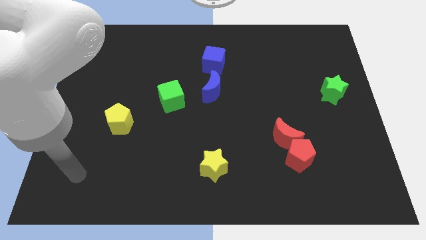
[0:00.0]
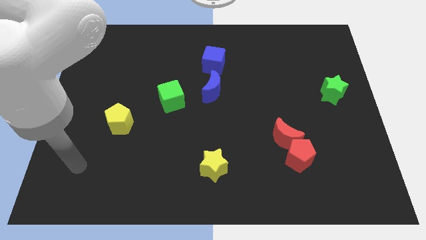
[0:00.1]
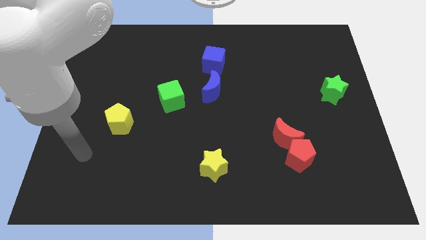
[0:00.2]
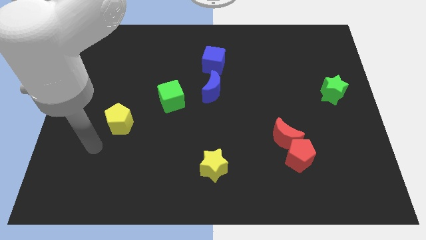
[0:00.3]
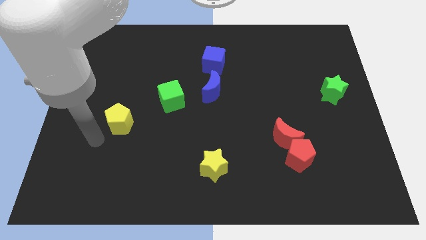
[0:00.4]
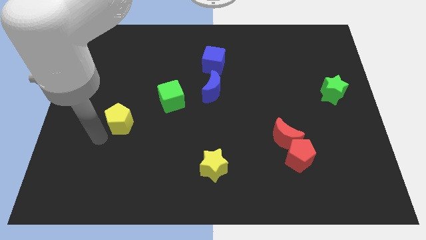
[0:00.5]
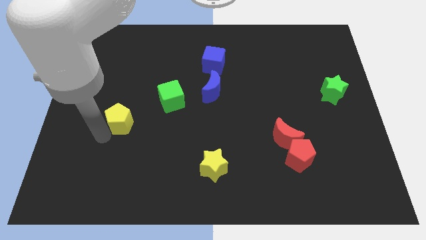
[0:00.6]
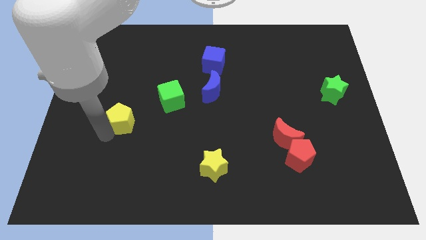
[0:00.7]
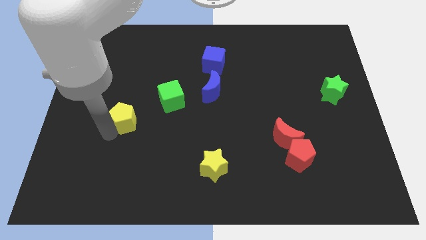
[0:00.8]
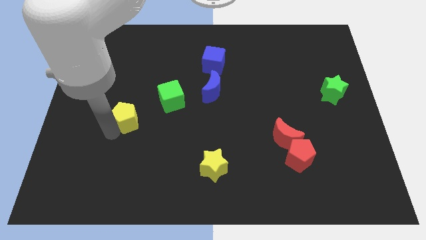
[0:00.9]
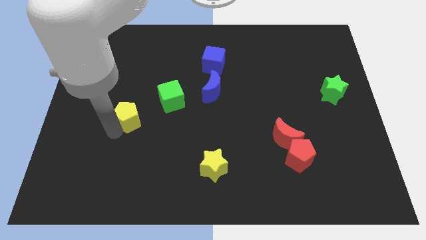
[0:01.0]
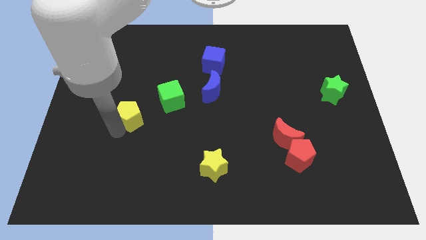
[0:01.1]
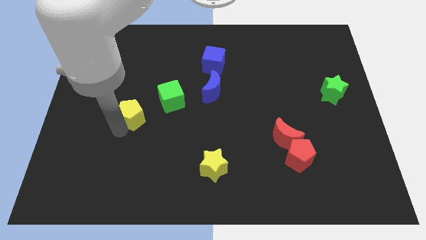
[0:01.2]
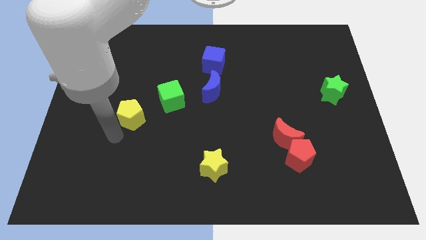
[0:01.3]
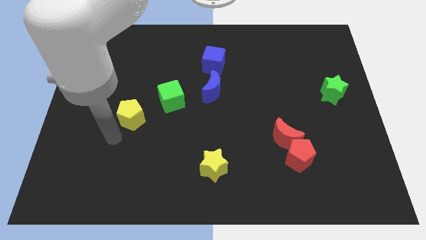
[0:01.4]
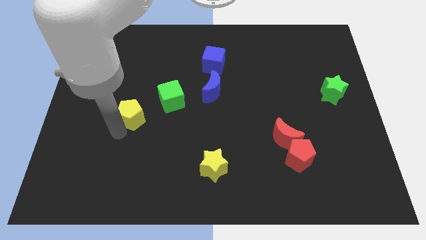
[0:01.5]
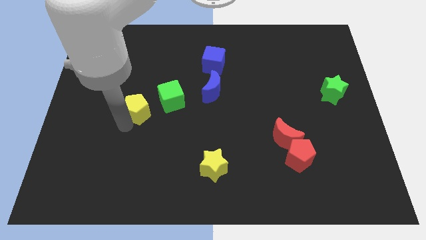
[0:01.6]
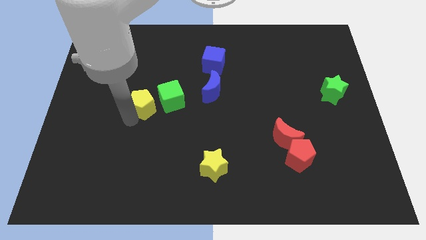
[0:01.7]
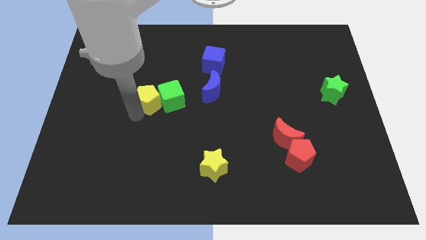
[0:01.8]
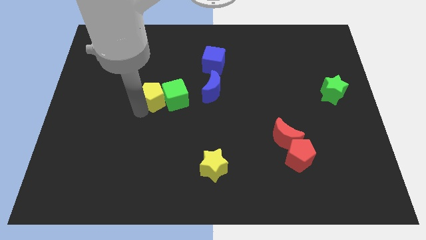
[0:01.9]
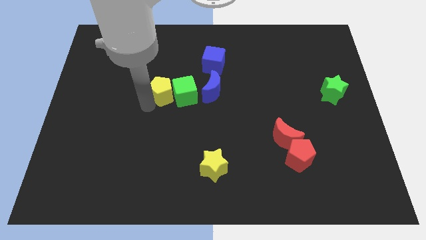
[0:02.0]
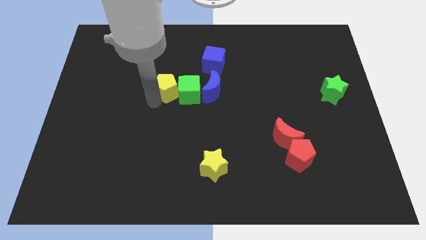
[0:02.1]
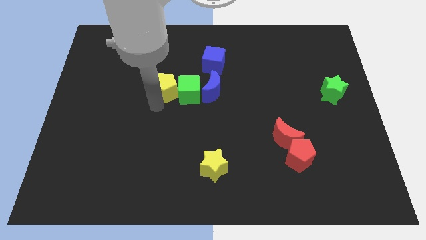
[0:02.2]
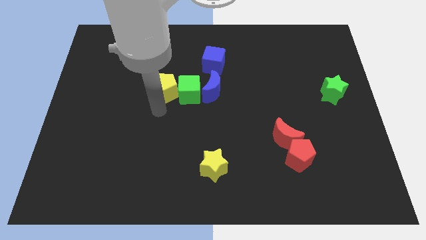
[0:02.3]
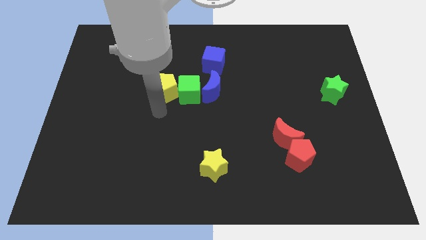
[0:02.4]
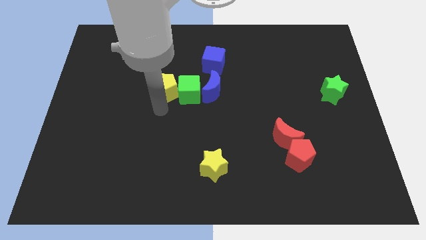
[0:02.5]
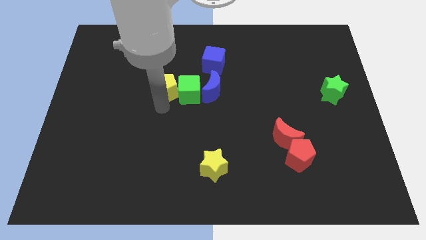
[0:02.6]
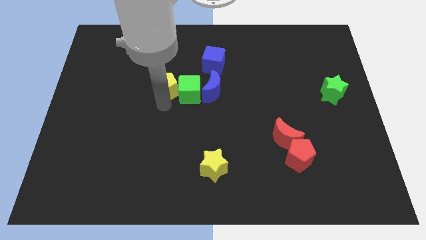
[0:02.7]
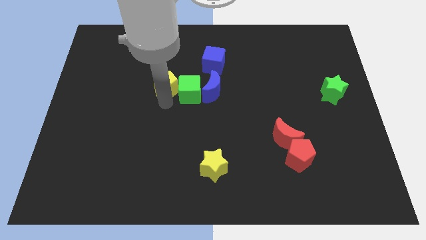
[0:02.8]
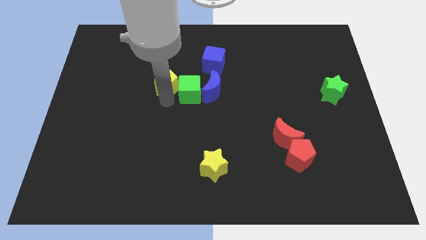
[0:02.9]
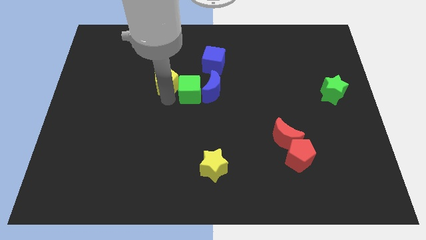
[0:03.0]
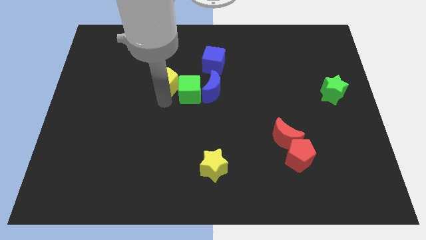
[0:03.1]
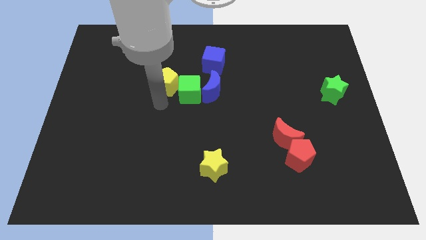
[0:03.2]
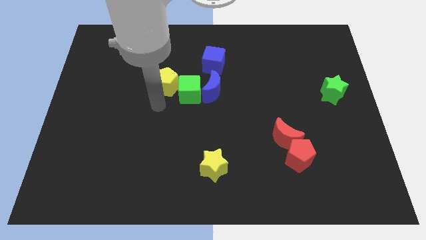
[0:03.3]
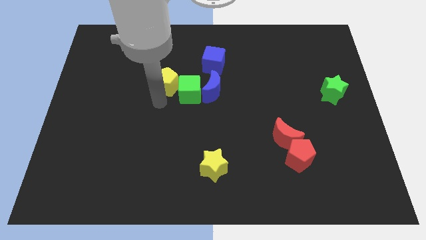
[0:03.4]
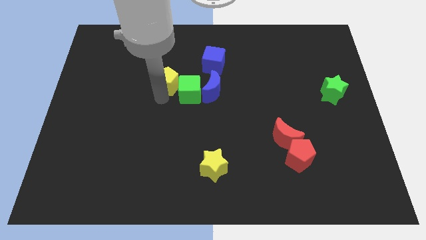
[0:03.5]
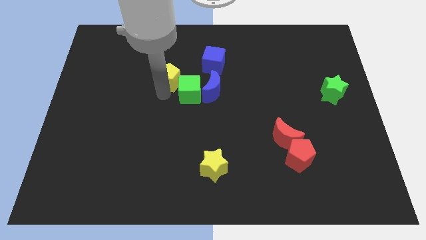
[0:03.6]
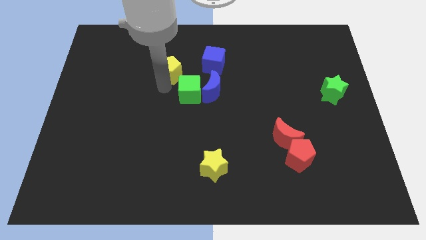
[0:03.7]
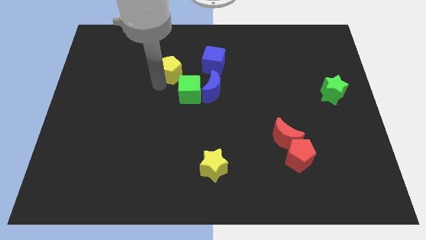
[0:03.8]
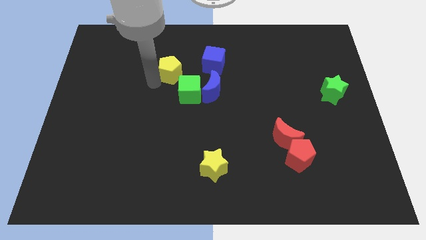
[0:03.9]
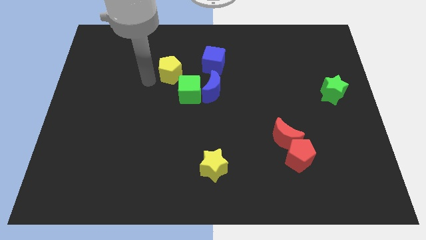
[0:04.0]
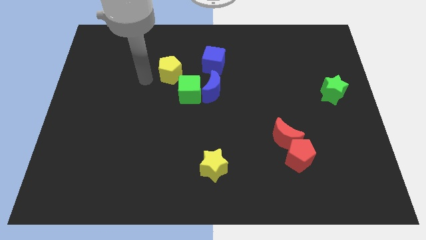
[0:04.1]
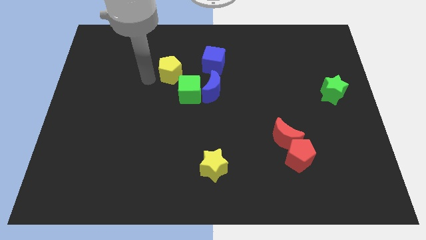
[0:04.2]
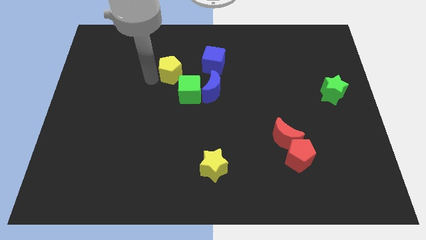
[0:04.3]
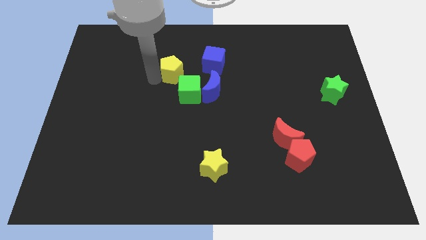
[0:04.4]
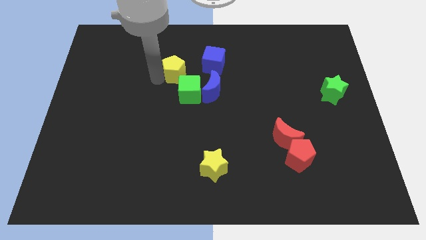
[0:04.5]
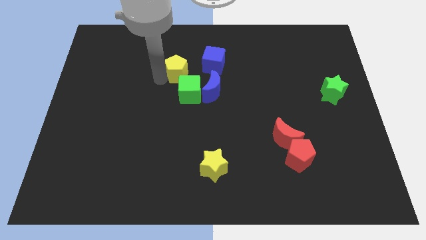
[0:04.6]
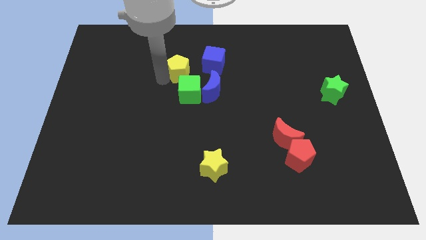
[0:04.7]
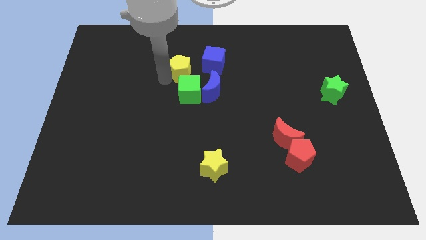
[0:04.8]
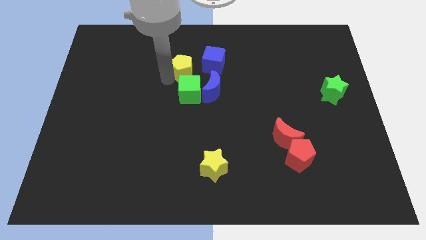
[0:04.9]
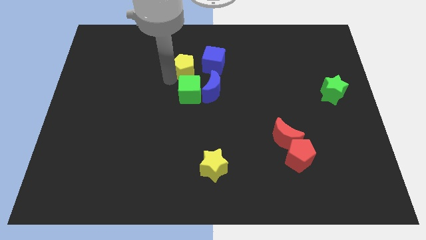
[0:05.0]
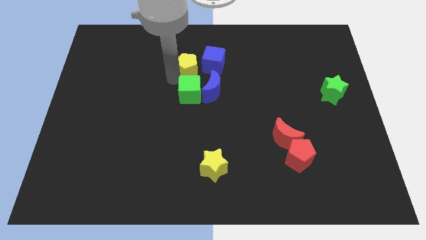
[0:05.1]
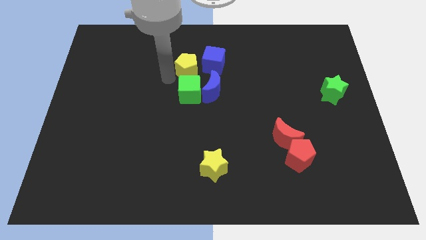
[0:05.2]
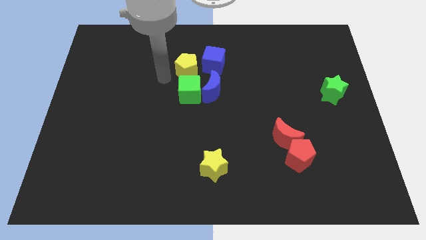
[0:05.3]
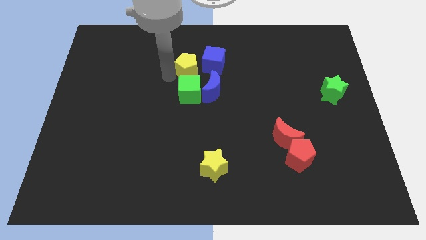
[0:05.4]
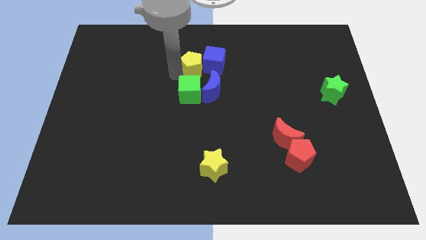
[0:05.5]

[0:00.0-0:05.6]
slide the yellow pentagon next to the blue cube

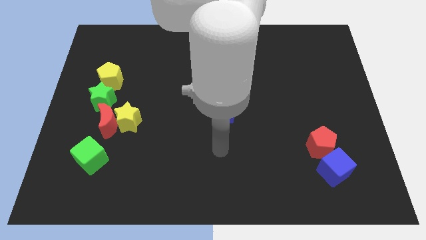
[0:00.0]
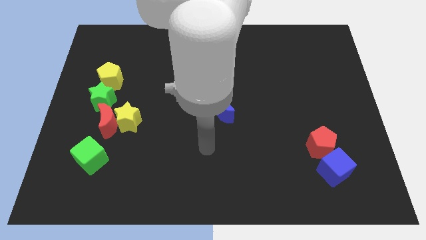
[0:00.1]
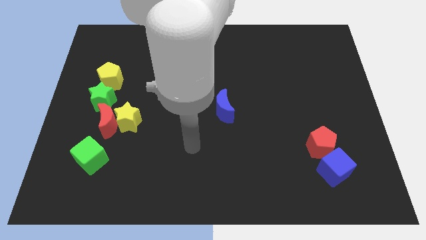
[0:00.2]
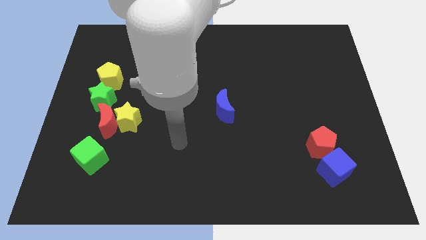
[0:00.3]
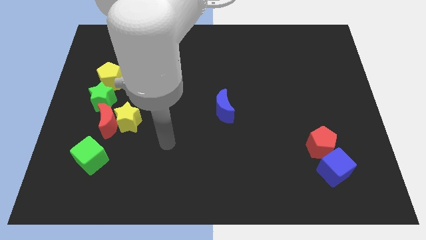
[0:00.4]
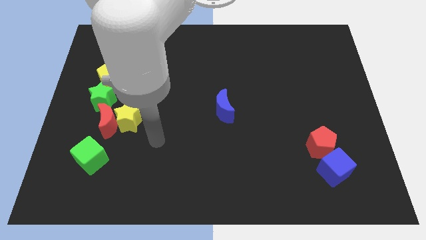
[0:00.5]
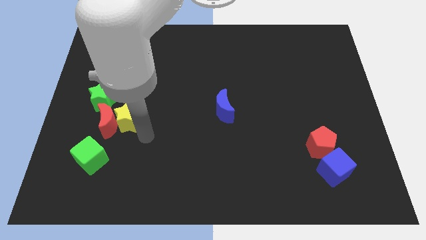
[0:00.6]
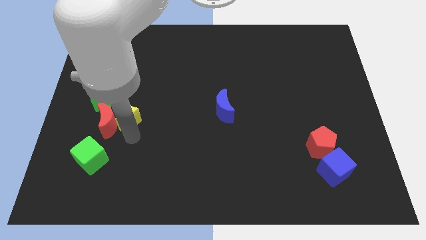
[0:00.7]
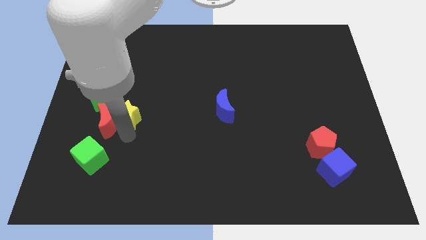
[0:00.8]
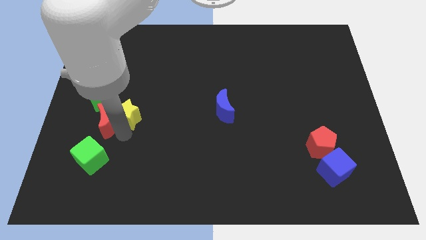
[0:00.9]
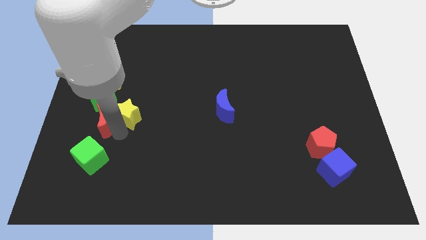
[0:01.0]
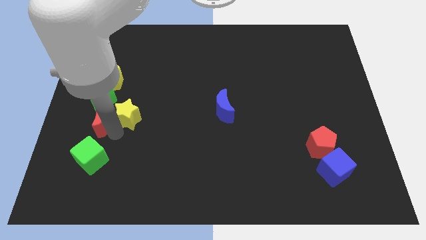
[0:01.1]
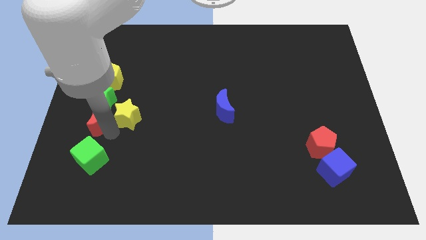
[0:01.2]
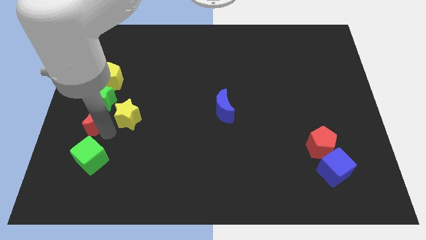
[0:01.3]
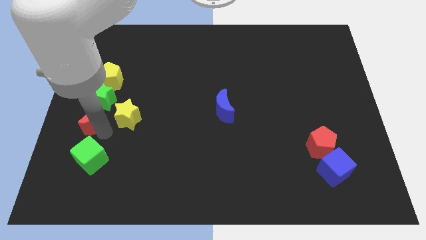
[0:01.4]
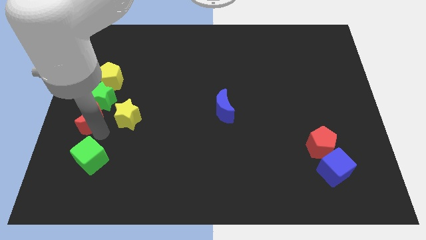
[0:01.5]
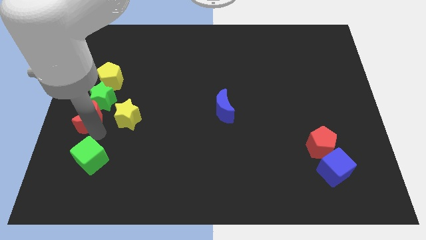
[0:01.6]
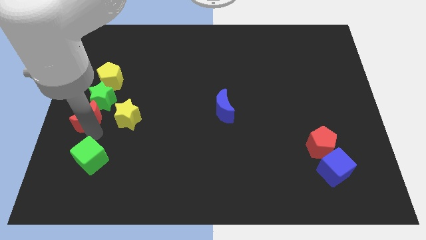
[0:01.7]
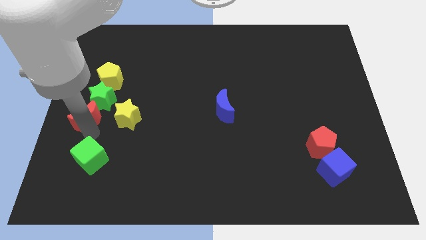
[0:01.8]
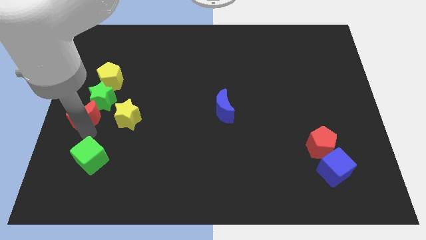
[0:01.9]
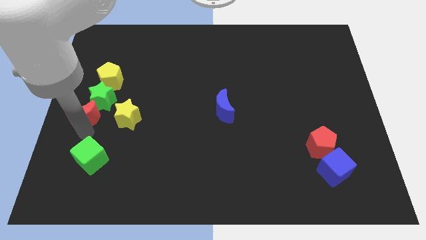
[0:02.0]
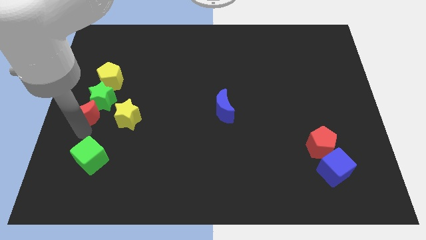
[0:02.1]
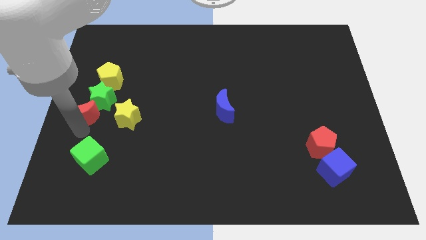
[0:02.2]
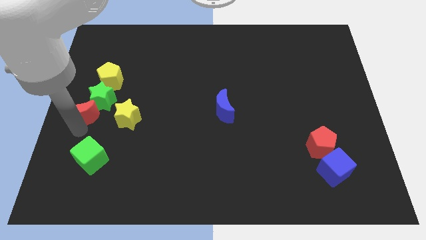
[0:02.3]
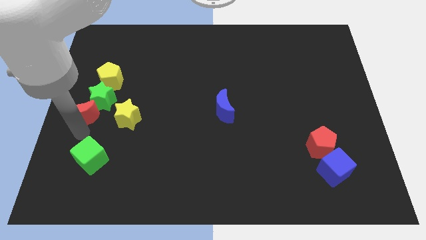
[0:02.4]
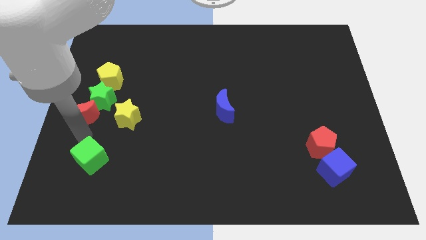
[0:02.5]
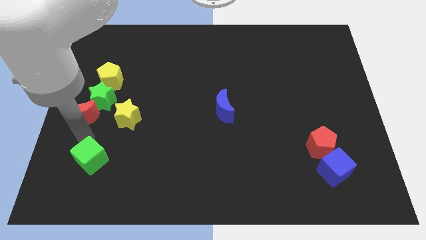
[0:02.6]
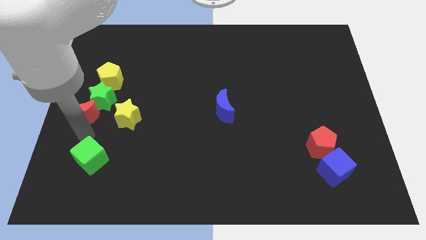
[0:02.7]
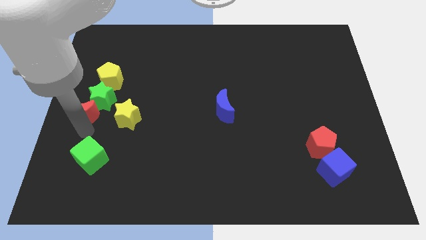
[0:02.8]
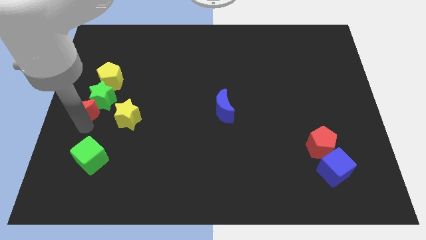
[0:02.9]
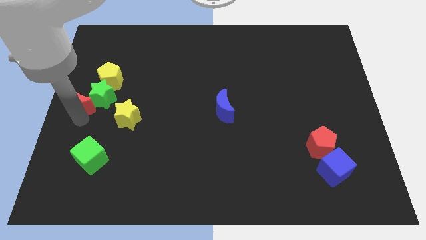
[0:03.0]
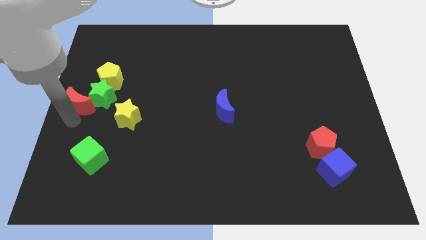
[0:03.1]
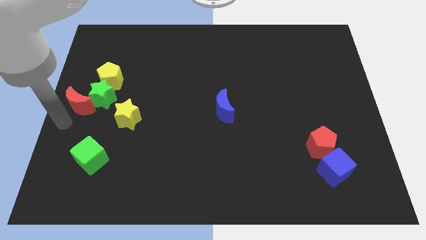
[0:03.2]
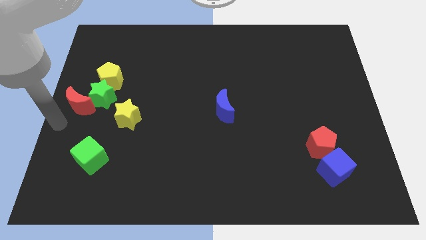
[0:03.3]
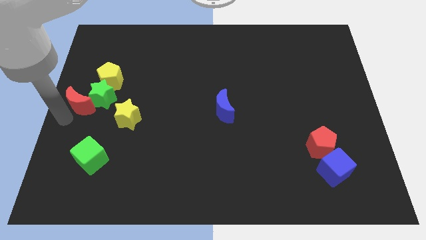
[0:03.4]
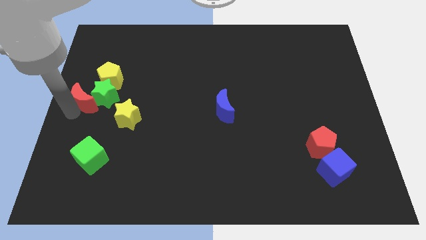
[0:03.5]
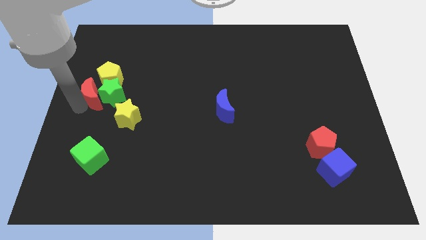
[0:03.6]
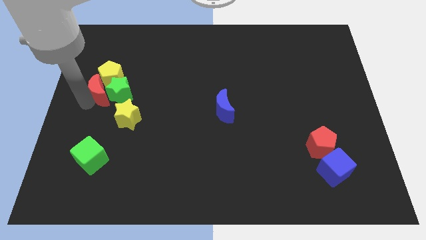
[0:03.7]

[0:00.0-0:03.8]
move the red moon to the yellow pentagon
